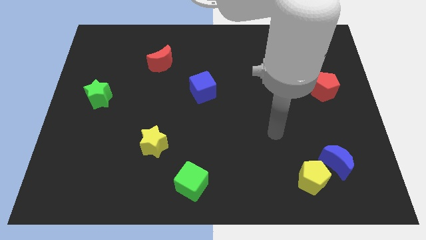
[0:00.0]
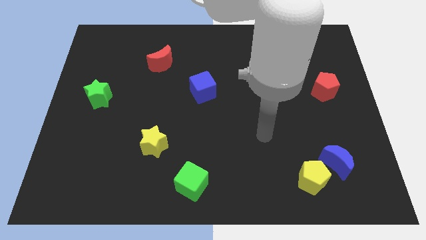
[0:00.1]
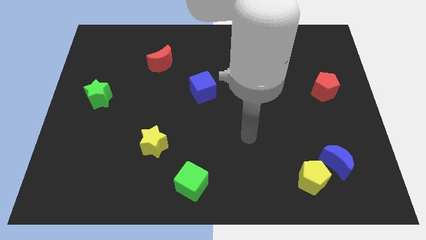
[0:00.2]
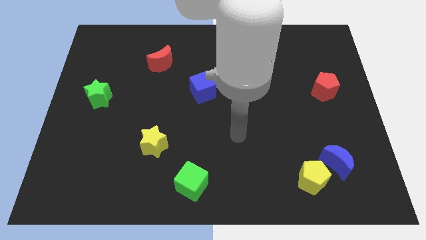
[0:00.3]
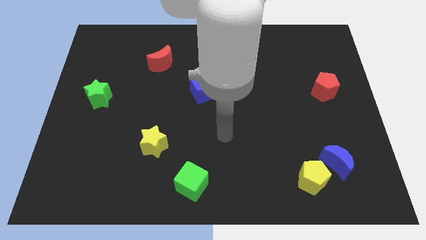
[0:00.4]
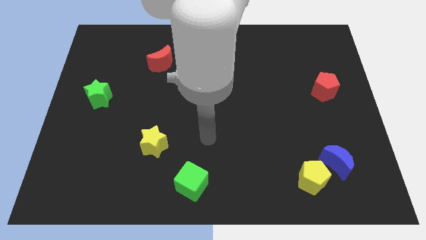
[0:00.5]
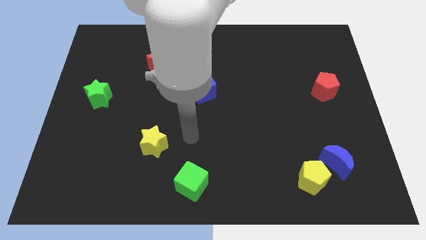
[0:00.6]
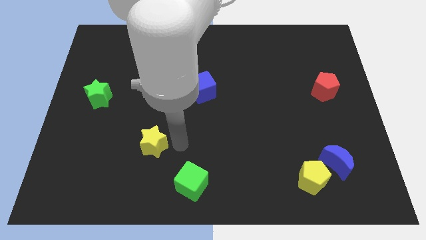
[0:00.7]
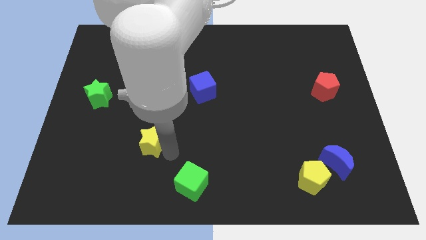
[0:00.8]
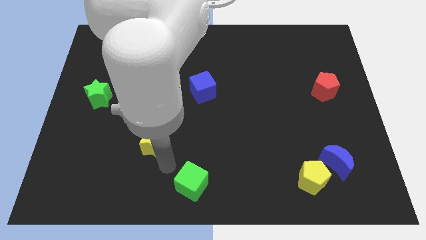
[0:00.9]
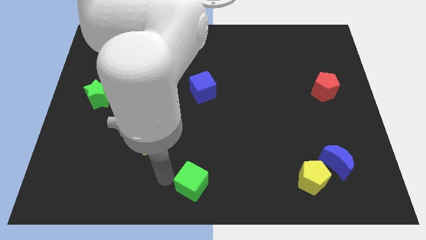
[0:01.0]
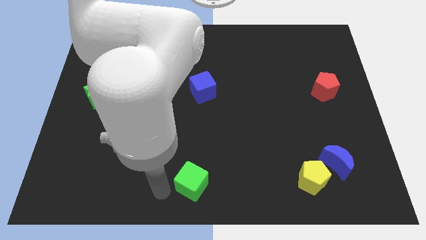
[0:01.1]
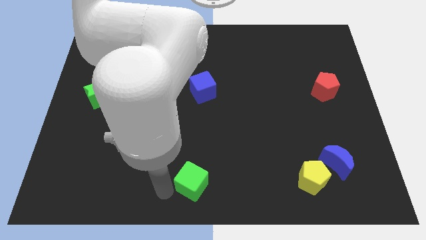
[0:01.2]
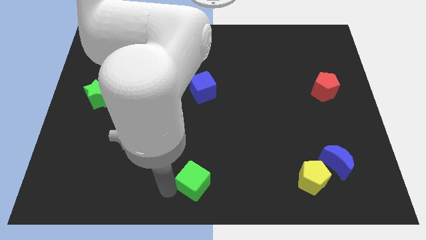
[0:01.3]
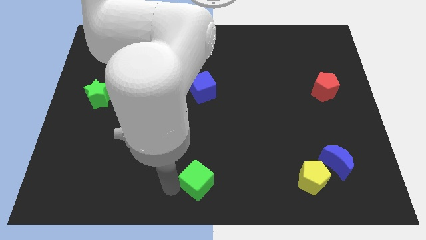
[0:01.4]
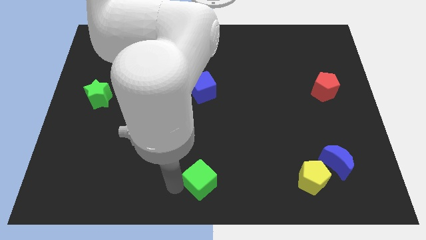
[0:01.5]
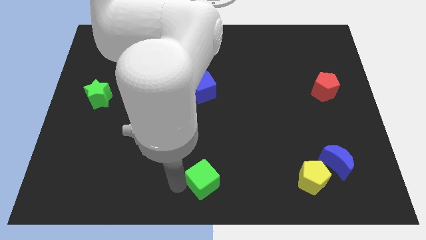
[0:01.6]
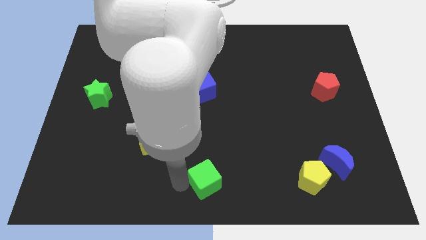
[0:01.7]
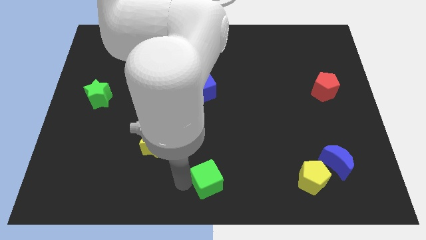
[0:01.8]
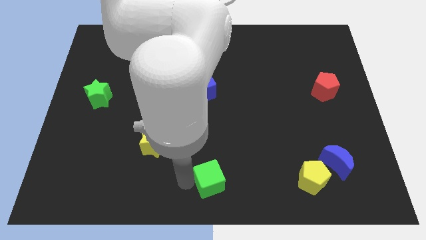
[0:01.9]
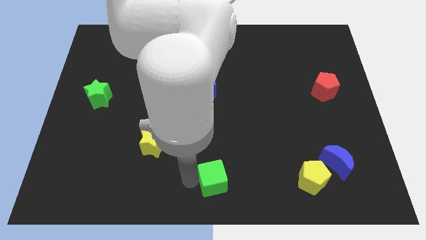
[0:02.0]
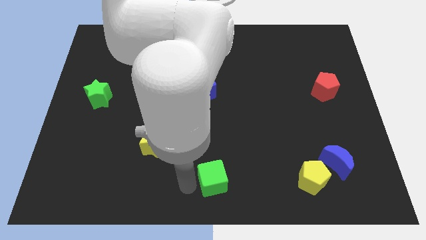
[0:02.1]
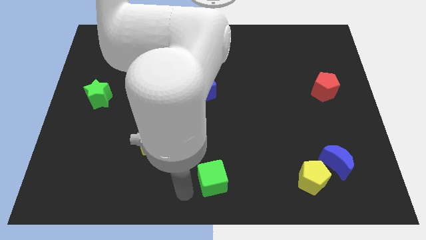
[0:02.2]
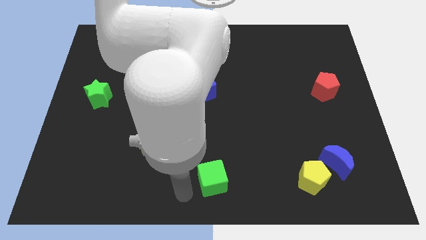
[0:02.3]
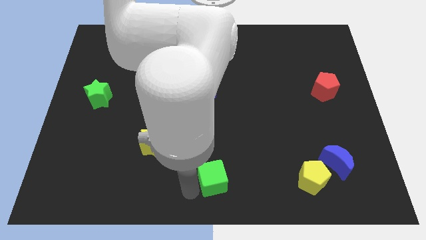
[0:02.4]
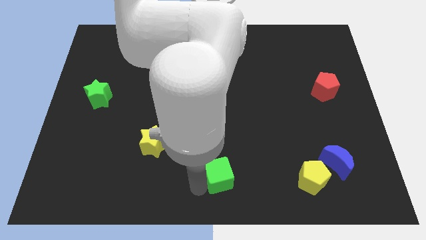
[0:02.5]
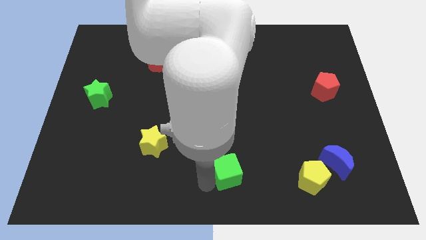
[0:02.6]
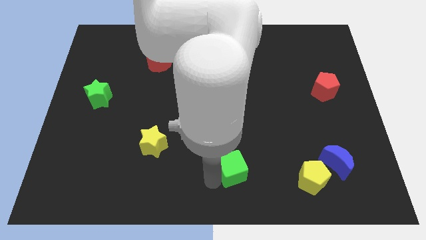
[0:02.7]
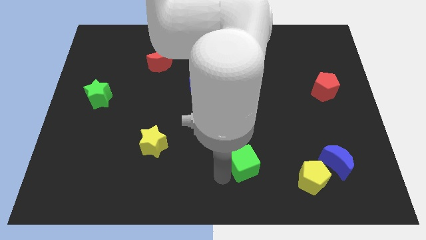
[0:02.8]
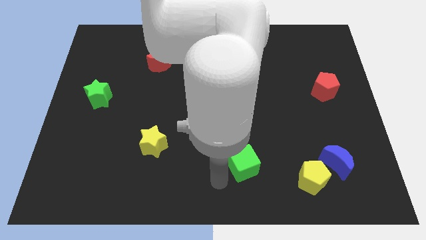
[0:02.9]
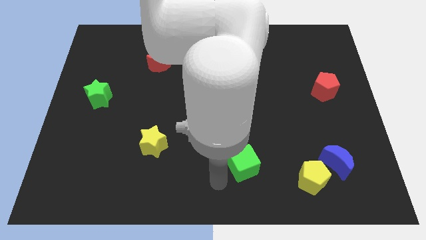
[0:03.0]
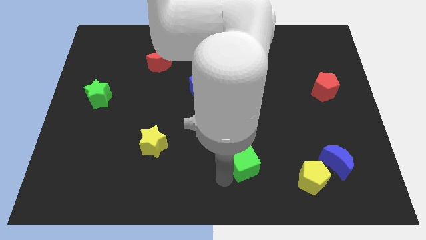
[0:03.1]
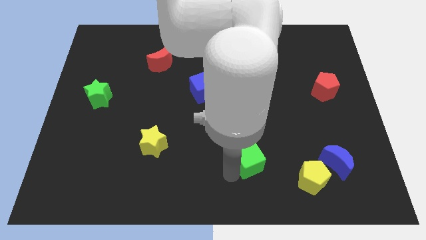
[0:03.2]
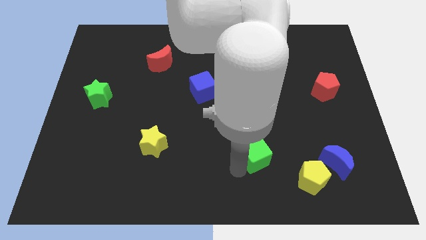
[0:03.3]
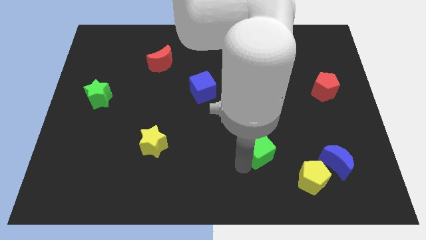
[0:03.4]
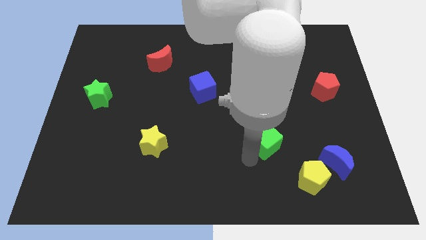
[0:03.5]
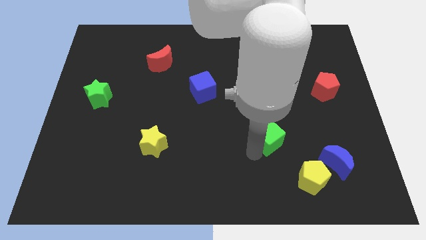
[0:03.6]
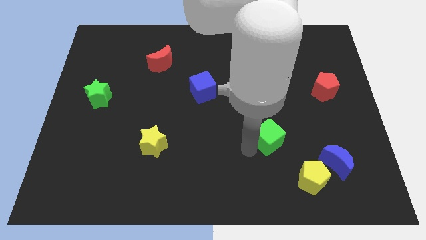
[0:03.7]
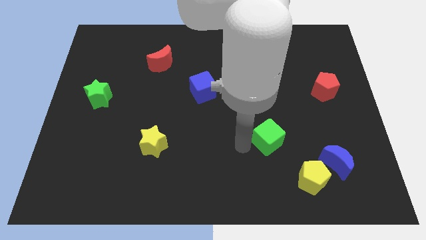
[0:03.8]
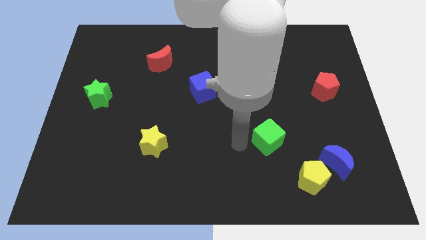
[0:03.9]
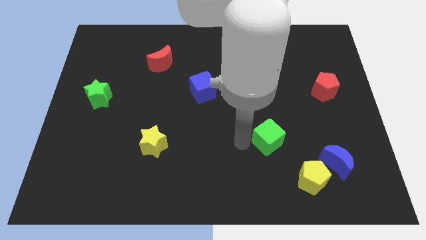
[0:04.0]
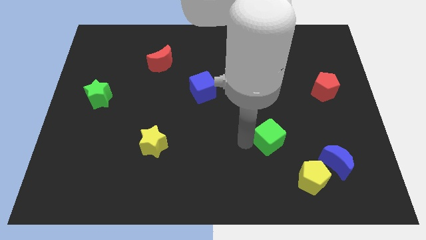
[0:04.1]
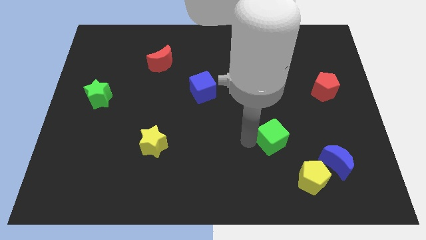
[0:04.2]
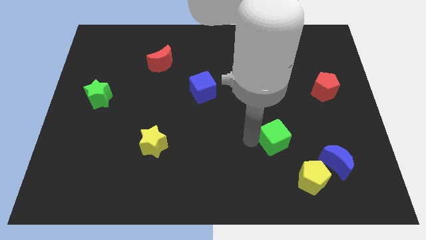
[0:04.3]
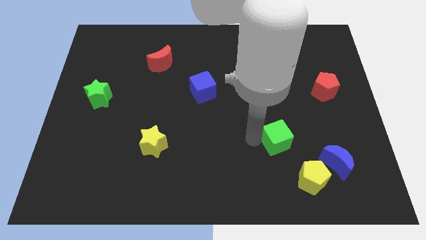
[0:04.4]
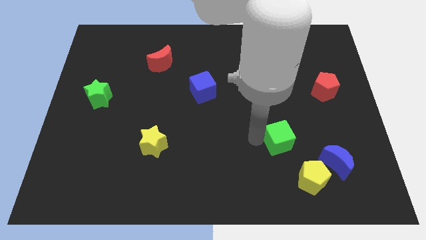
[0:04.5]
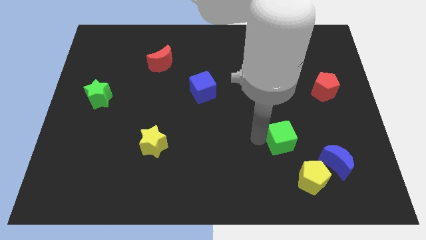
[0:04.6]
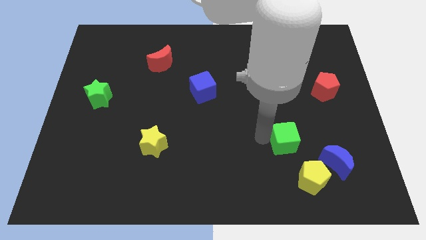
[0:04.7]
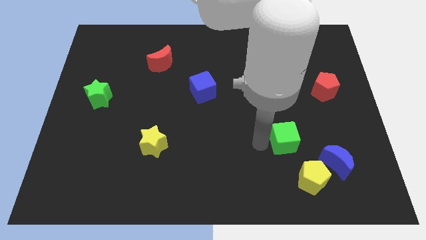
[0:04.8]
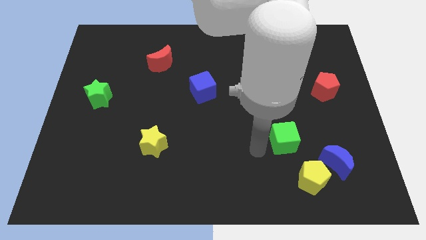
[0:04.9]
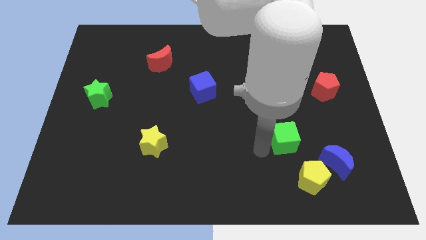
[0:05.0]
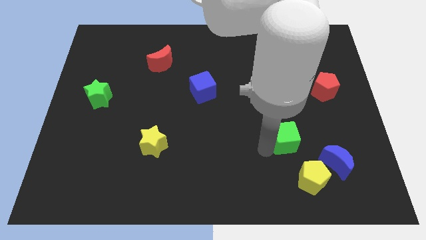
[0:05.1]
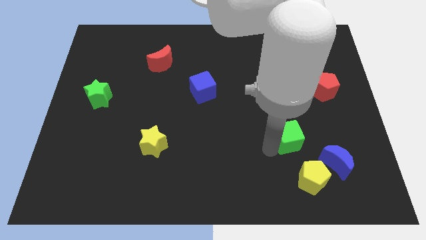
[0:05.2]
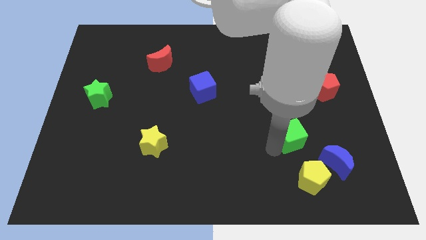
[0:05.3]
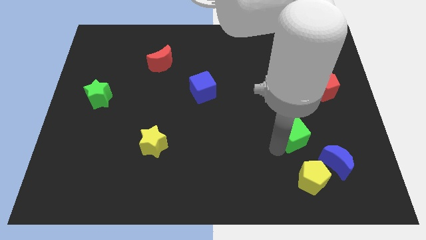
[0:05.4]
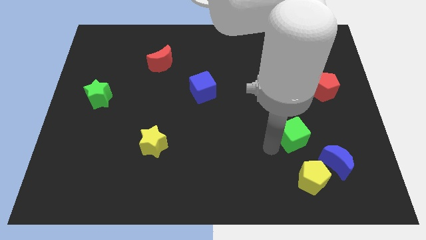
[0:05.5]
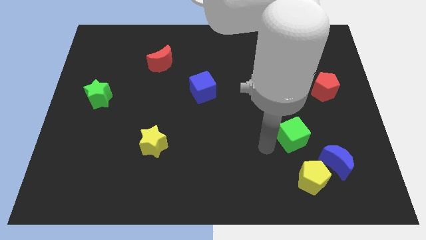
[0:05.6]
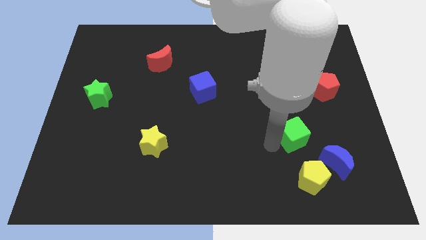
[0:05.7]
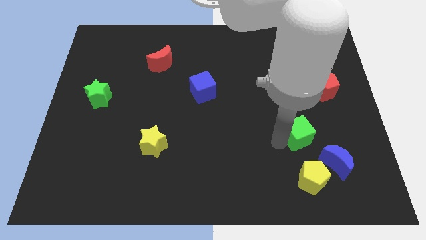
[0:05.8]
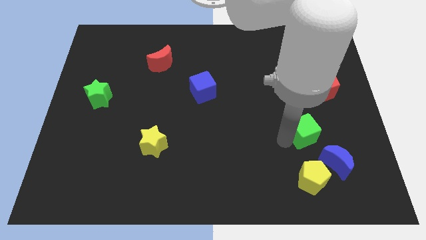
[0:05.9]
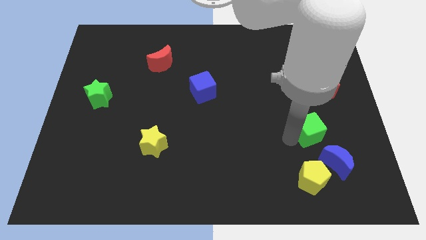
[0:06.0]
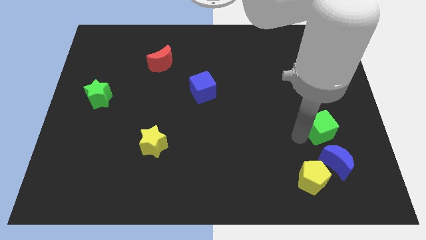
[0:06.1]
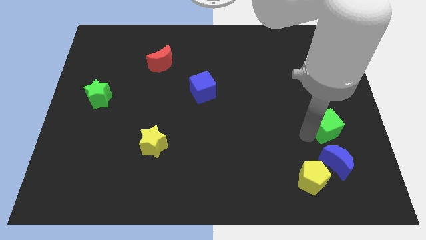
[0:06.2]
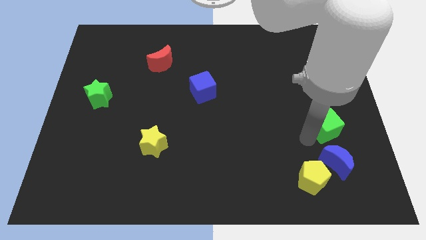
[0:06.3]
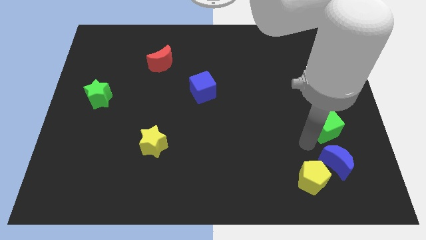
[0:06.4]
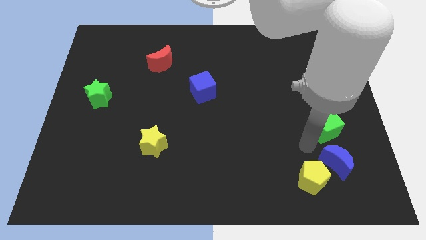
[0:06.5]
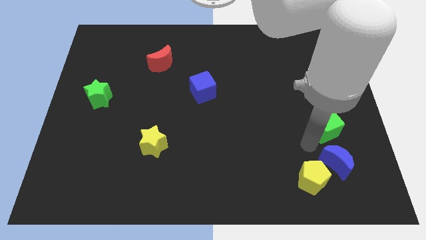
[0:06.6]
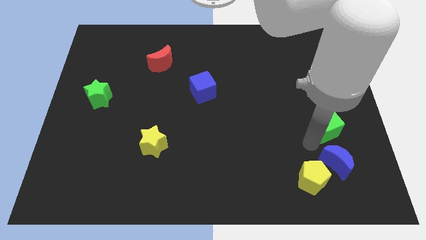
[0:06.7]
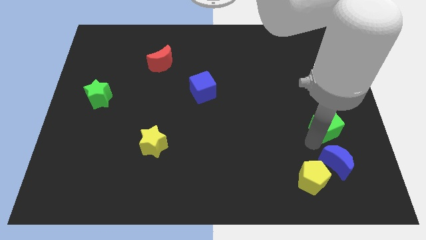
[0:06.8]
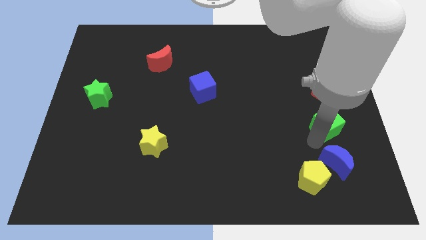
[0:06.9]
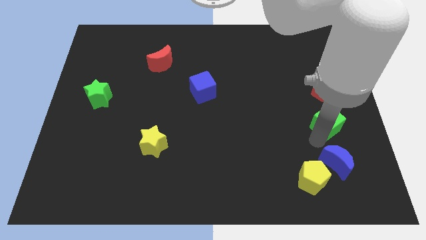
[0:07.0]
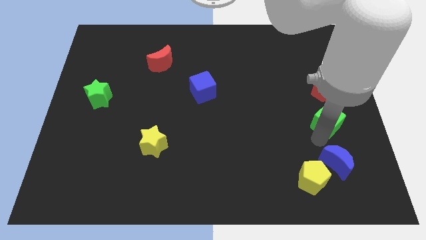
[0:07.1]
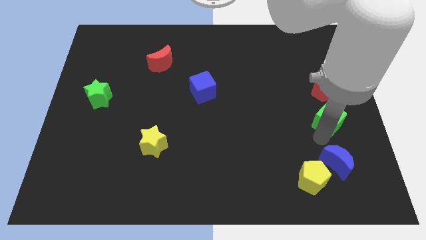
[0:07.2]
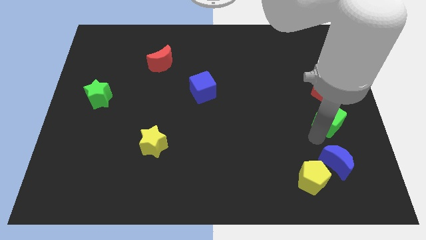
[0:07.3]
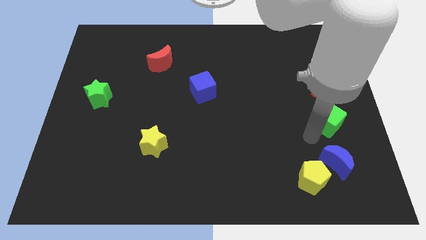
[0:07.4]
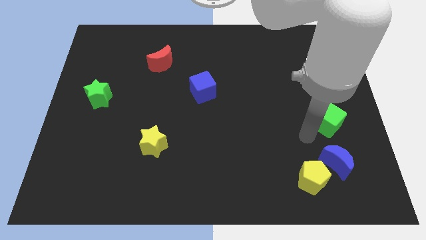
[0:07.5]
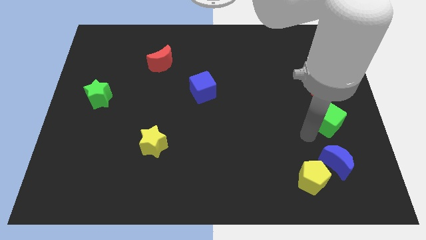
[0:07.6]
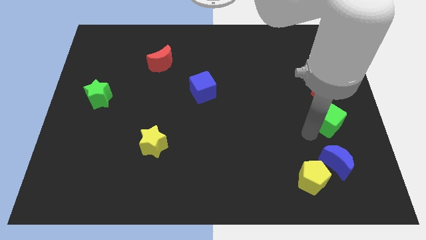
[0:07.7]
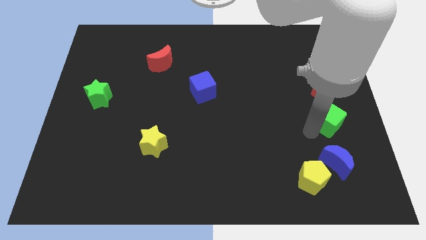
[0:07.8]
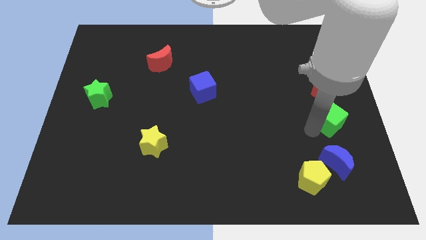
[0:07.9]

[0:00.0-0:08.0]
move the green cube to the right side
